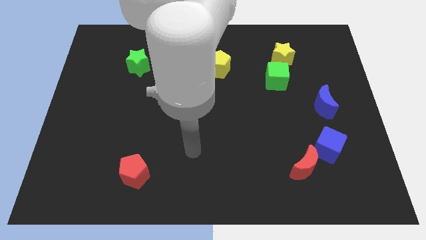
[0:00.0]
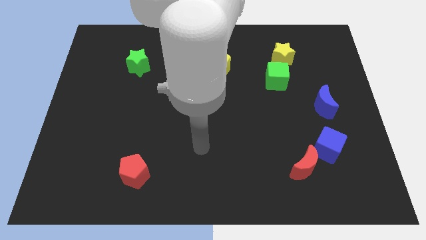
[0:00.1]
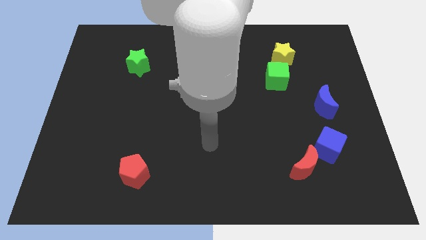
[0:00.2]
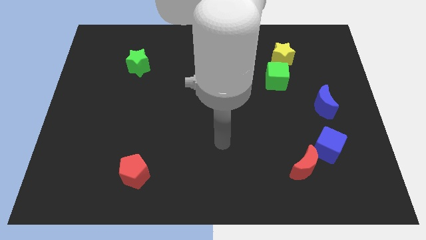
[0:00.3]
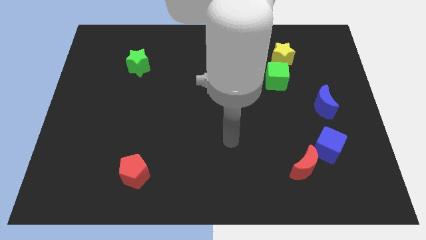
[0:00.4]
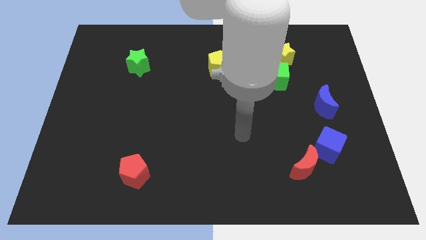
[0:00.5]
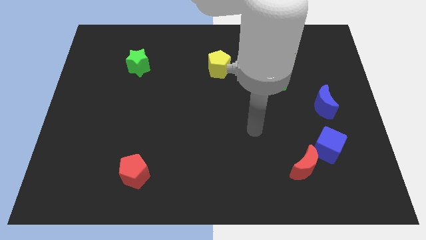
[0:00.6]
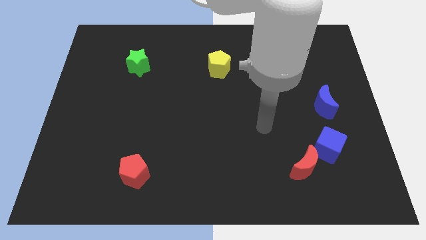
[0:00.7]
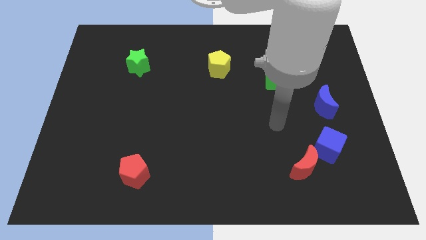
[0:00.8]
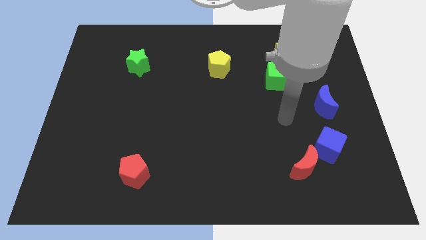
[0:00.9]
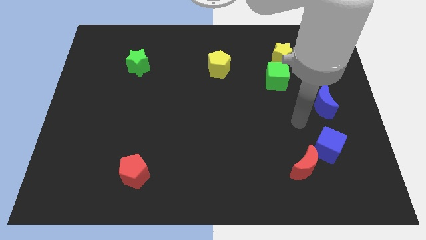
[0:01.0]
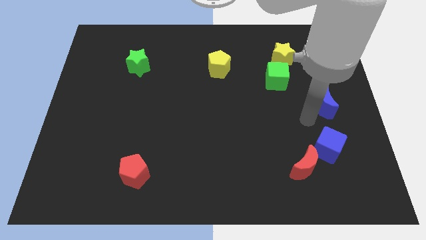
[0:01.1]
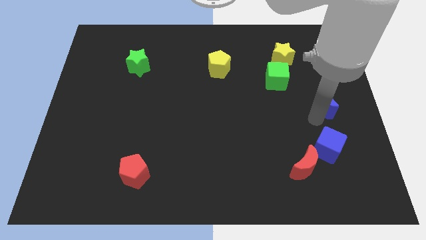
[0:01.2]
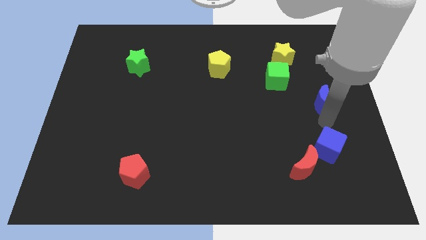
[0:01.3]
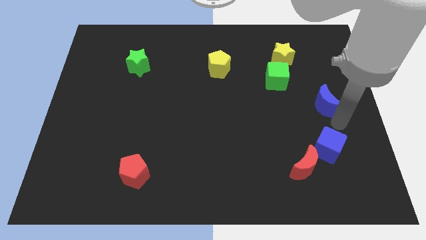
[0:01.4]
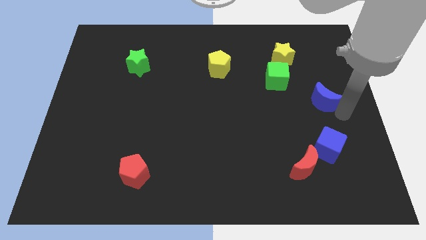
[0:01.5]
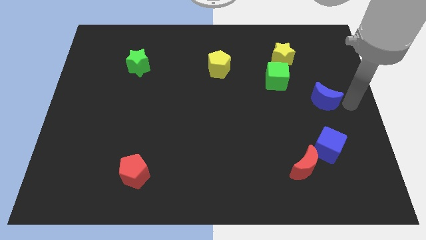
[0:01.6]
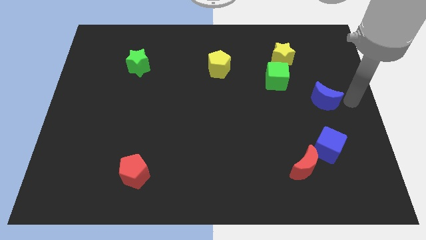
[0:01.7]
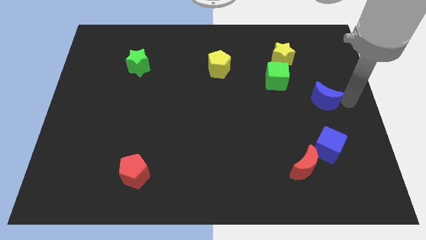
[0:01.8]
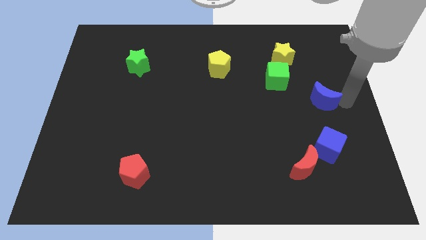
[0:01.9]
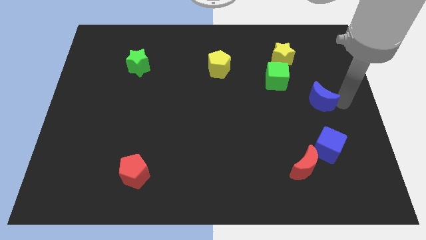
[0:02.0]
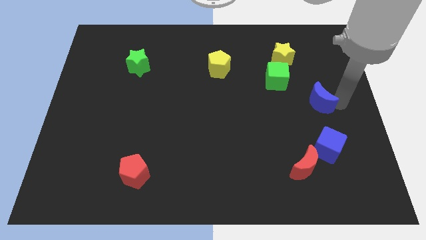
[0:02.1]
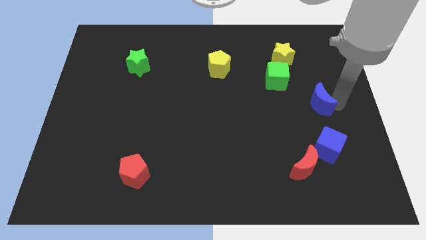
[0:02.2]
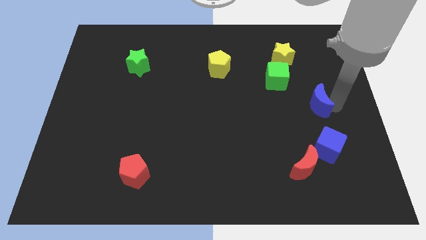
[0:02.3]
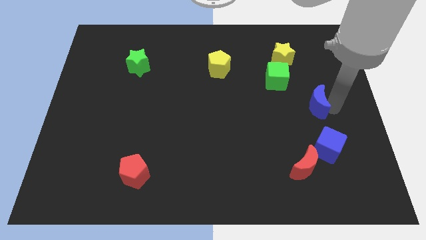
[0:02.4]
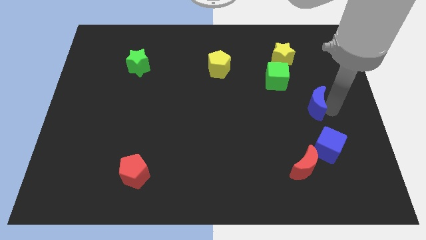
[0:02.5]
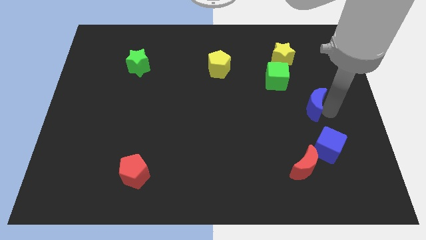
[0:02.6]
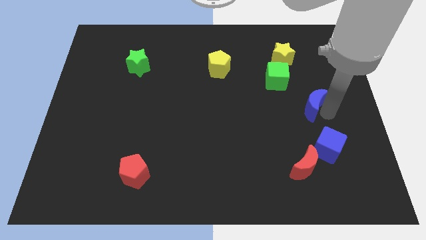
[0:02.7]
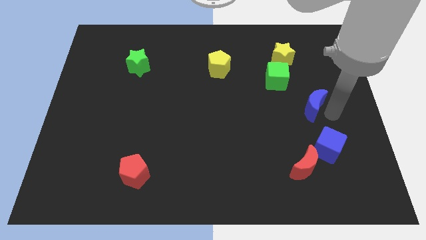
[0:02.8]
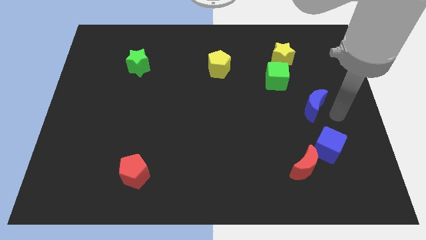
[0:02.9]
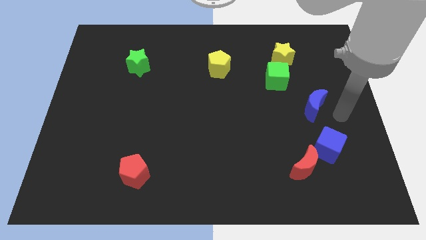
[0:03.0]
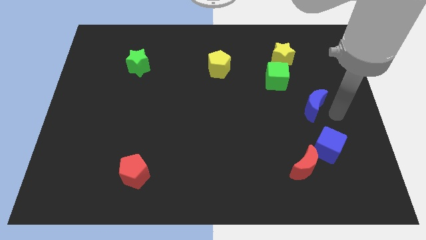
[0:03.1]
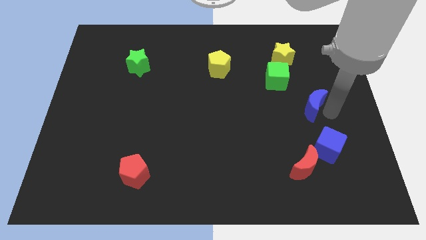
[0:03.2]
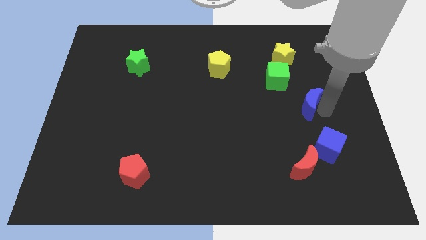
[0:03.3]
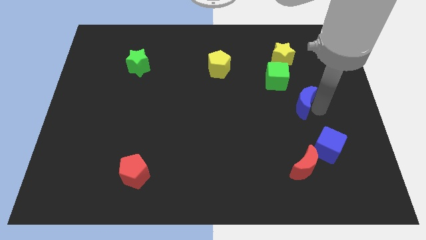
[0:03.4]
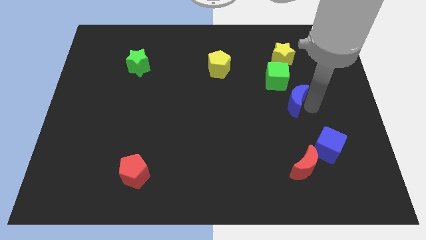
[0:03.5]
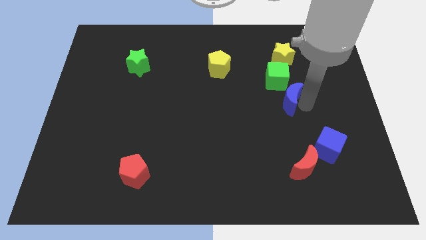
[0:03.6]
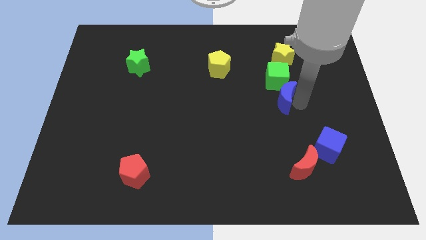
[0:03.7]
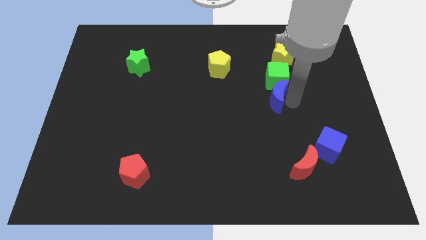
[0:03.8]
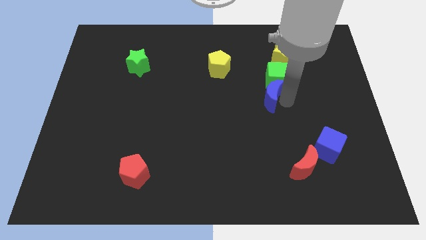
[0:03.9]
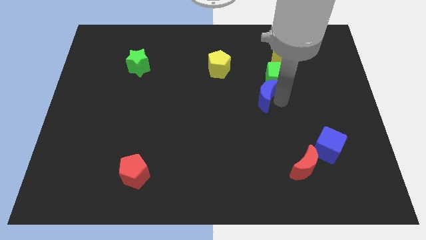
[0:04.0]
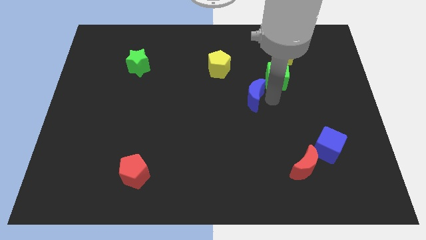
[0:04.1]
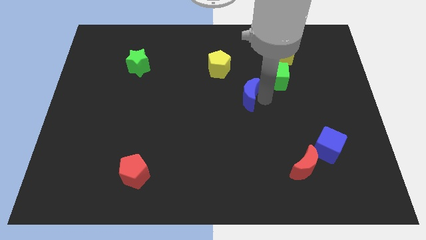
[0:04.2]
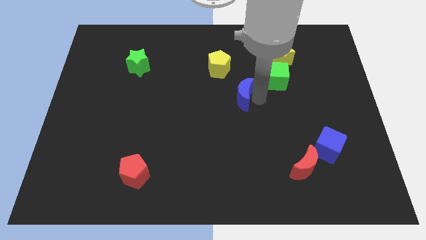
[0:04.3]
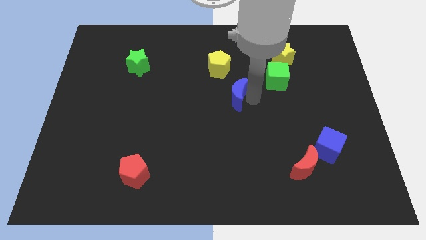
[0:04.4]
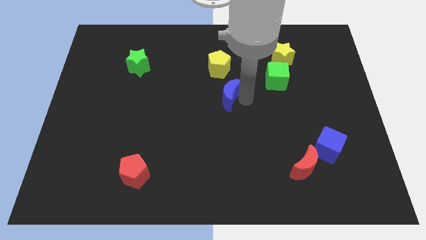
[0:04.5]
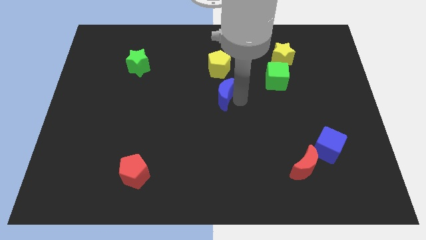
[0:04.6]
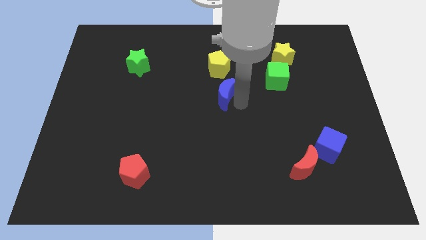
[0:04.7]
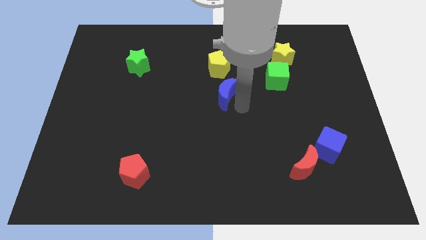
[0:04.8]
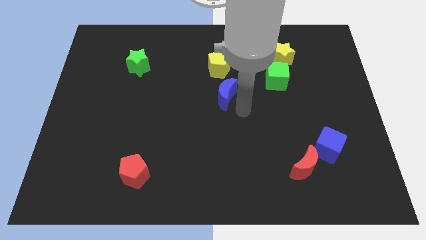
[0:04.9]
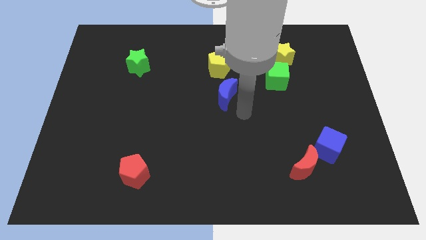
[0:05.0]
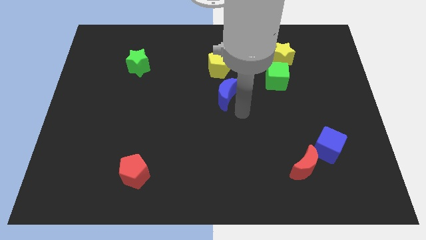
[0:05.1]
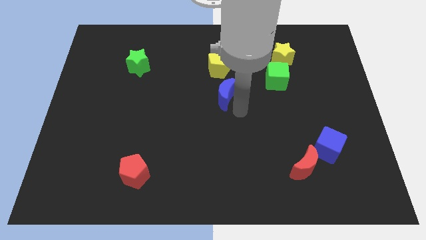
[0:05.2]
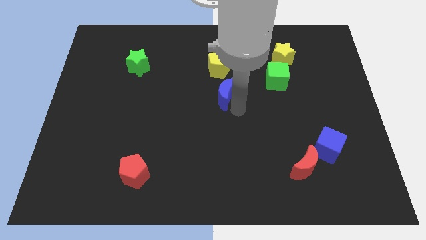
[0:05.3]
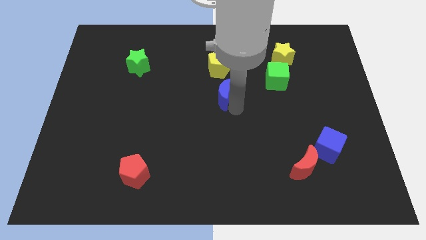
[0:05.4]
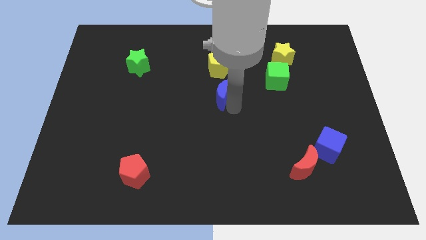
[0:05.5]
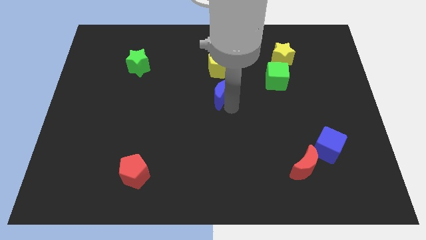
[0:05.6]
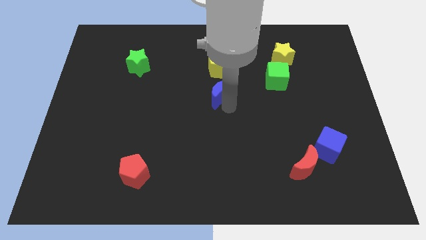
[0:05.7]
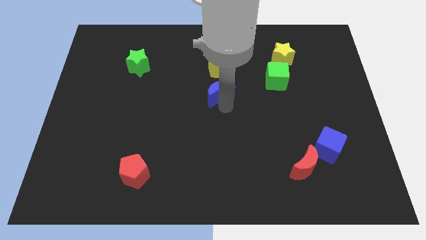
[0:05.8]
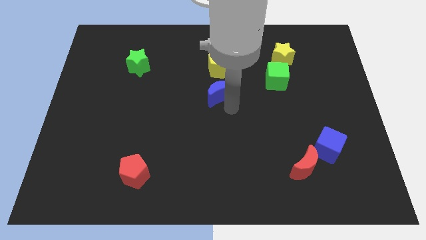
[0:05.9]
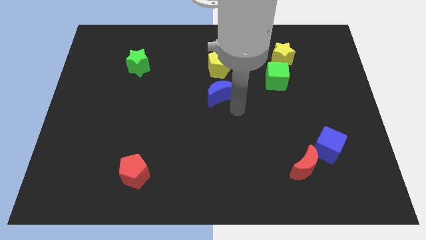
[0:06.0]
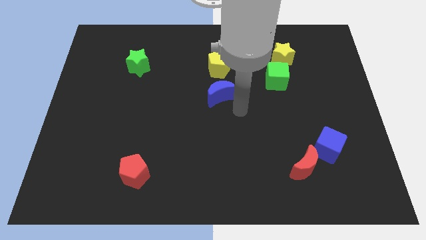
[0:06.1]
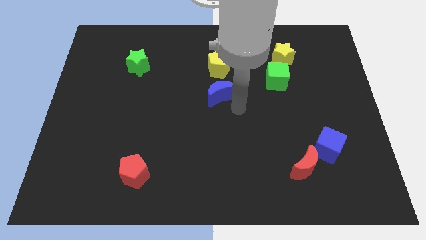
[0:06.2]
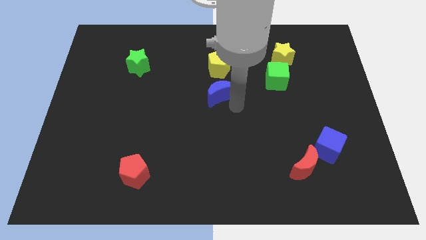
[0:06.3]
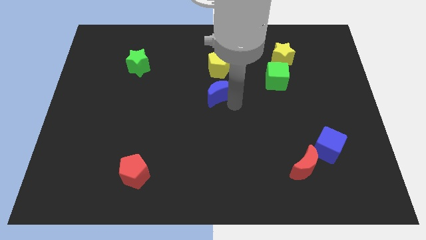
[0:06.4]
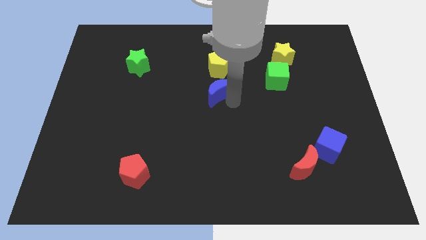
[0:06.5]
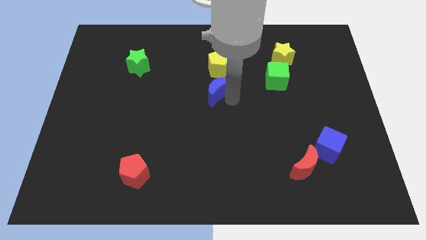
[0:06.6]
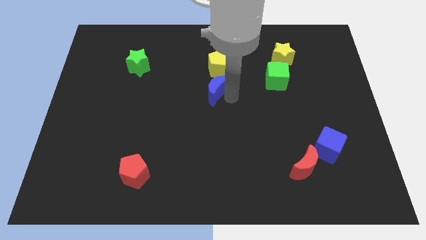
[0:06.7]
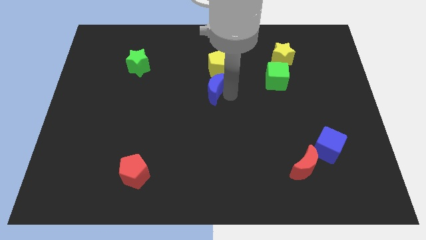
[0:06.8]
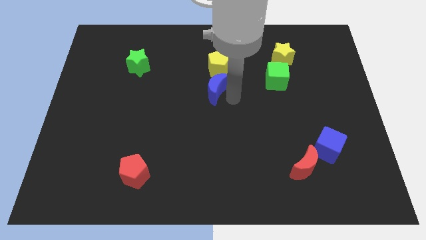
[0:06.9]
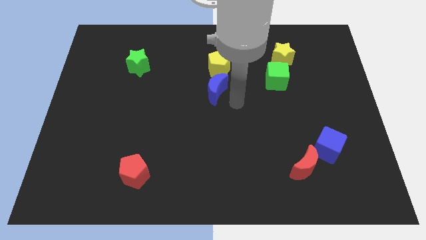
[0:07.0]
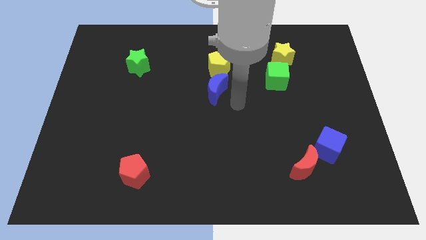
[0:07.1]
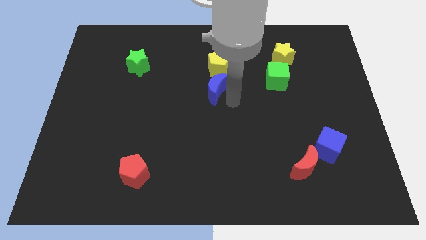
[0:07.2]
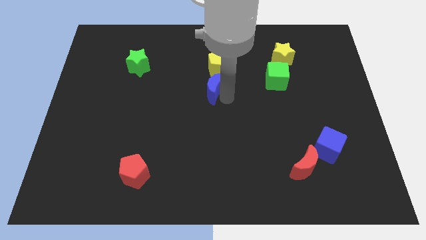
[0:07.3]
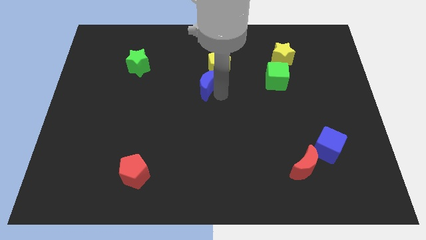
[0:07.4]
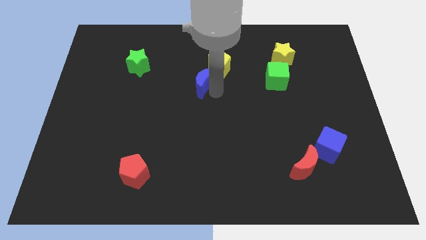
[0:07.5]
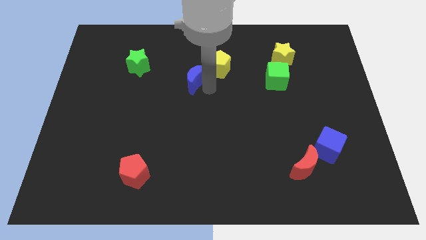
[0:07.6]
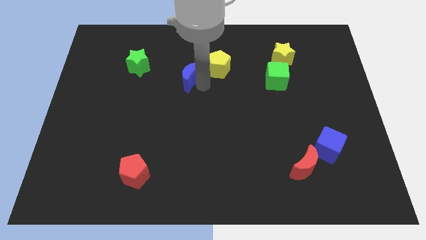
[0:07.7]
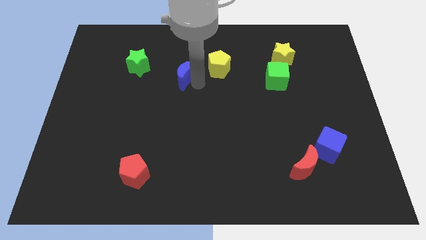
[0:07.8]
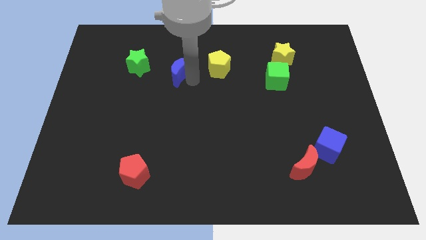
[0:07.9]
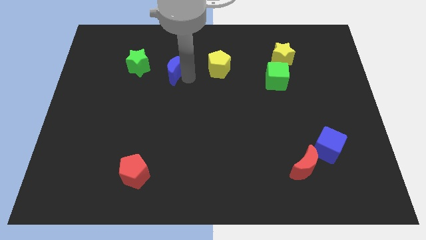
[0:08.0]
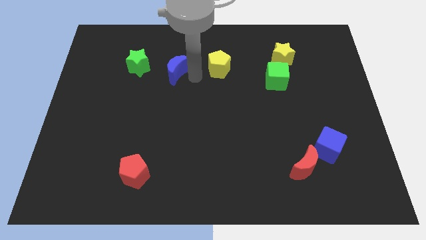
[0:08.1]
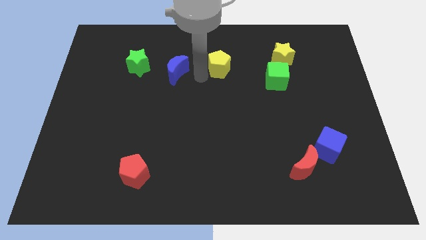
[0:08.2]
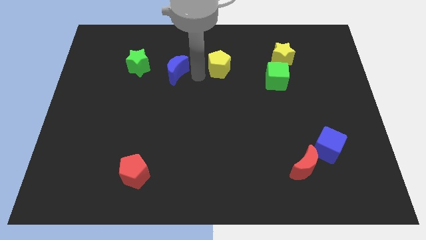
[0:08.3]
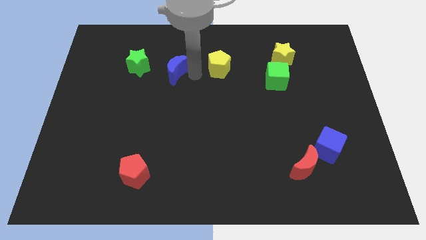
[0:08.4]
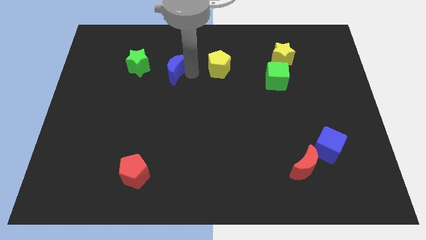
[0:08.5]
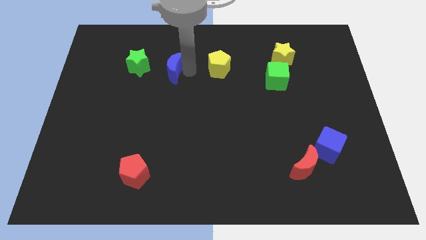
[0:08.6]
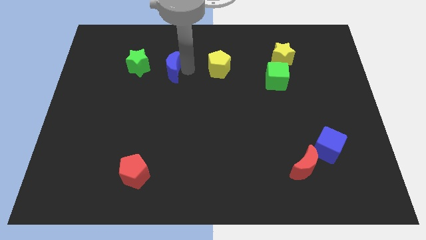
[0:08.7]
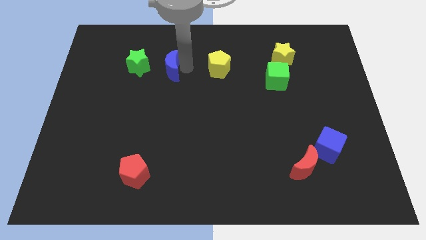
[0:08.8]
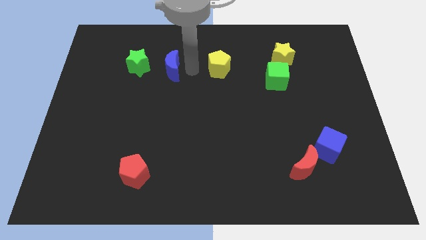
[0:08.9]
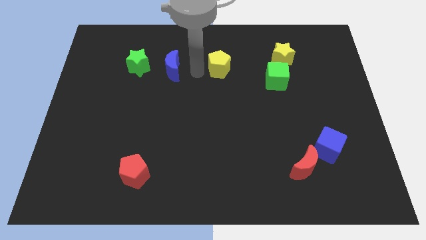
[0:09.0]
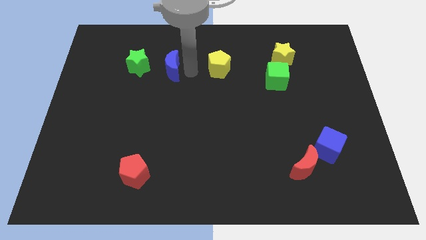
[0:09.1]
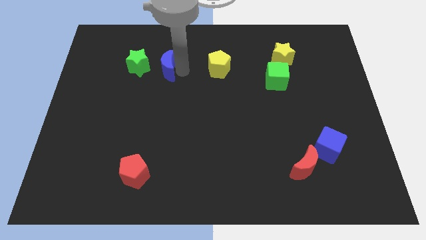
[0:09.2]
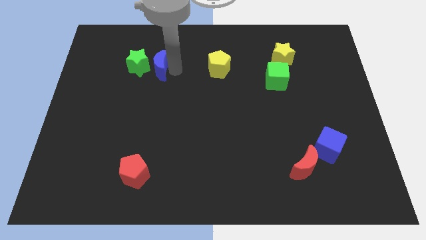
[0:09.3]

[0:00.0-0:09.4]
push the blue moon to the green star
